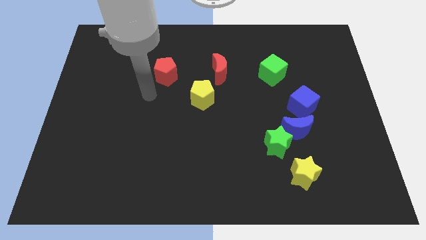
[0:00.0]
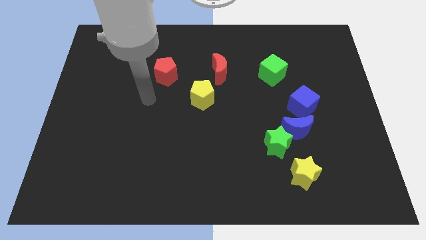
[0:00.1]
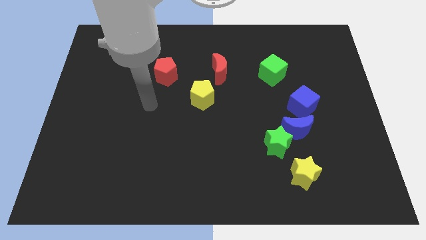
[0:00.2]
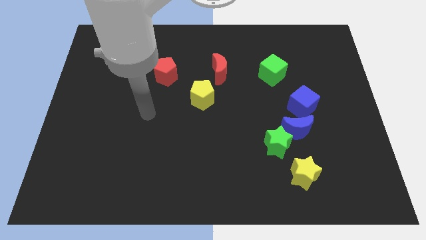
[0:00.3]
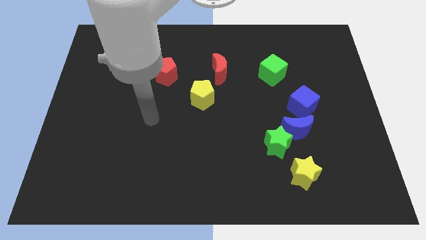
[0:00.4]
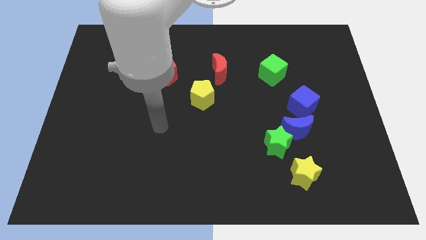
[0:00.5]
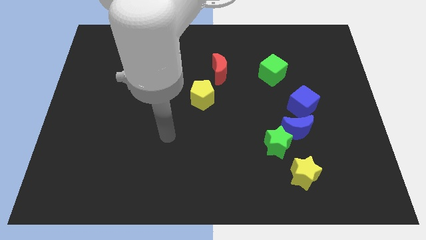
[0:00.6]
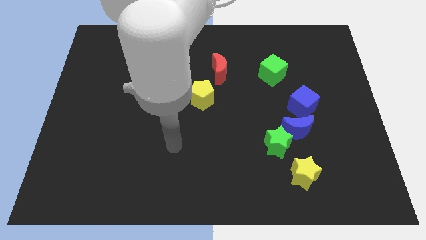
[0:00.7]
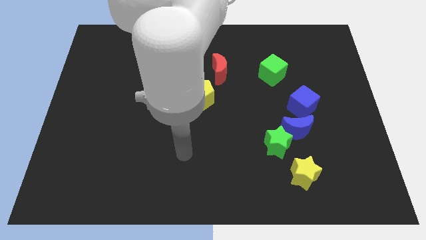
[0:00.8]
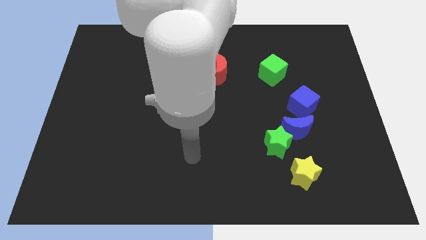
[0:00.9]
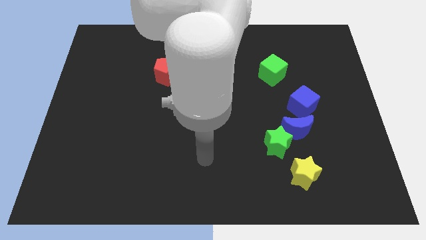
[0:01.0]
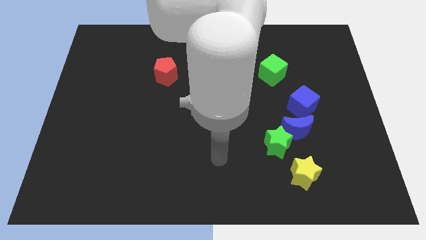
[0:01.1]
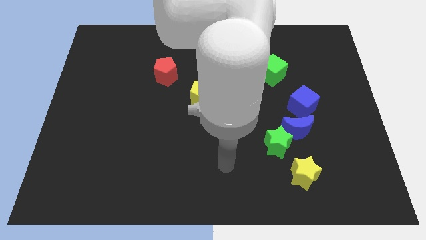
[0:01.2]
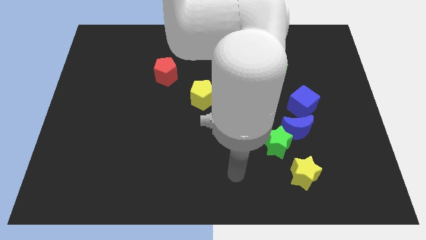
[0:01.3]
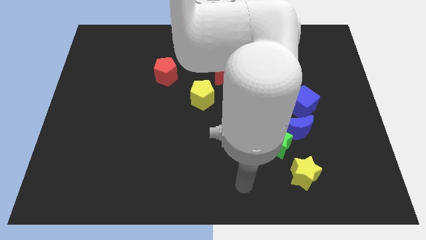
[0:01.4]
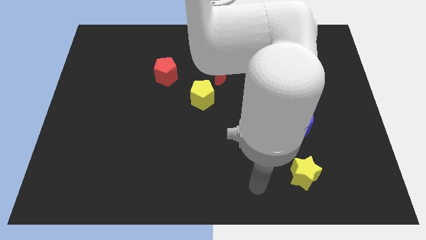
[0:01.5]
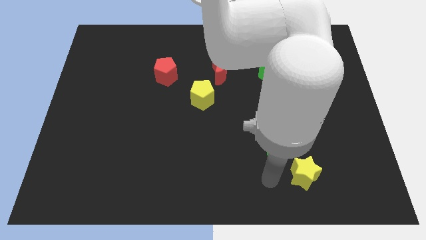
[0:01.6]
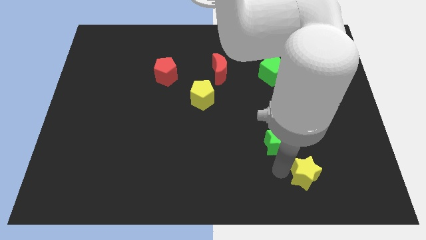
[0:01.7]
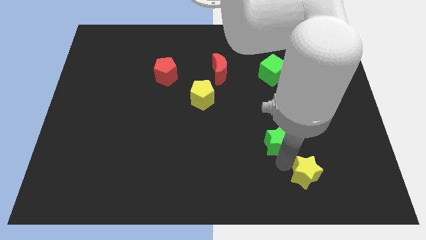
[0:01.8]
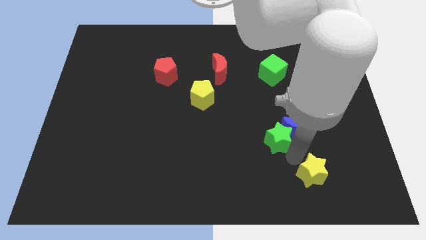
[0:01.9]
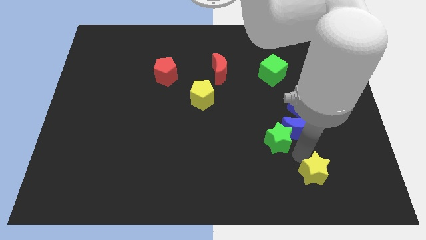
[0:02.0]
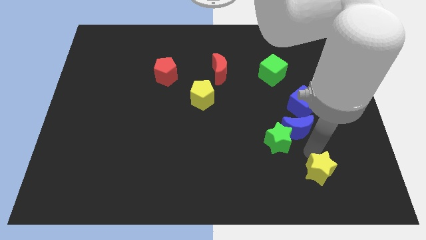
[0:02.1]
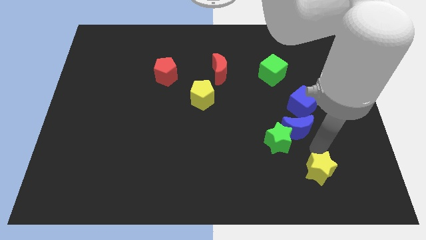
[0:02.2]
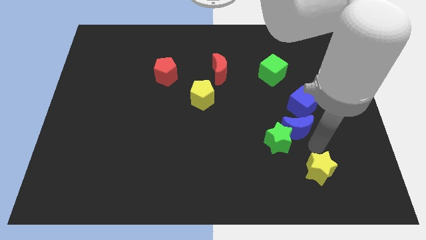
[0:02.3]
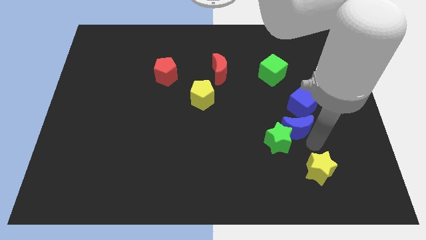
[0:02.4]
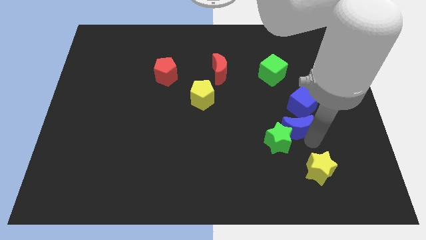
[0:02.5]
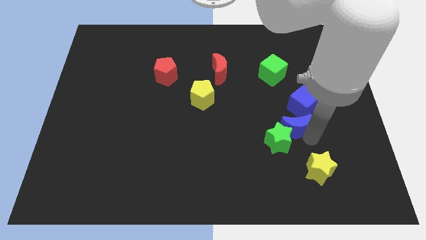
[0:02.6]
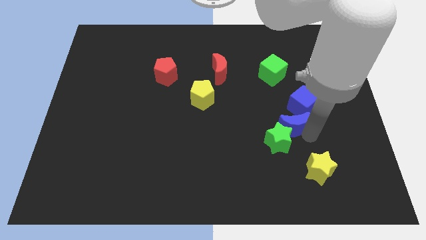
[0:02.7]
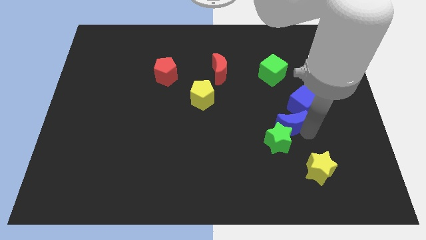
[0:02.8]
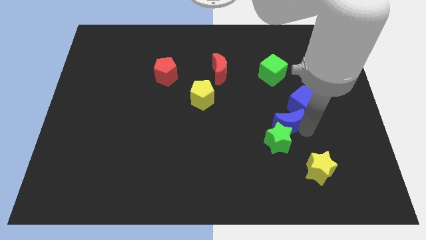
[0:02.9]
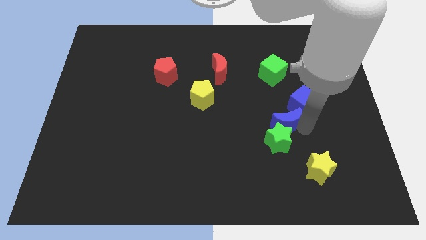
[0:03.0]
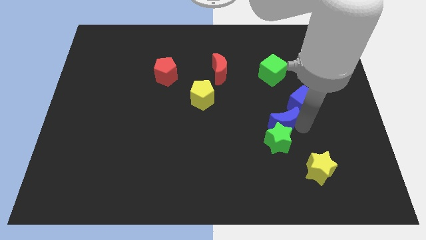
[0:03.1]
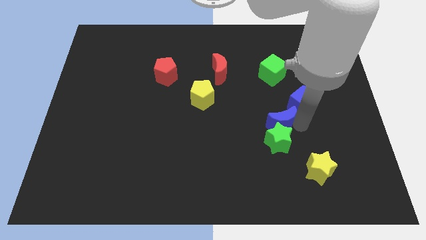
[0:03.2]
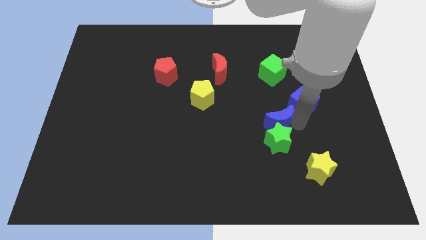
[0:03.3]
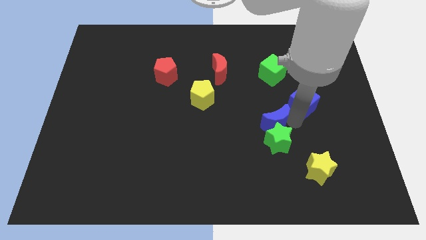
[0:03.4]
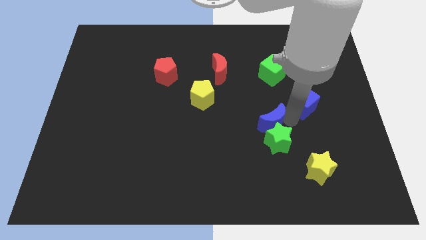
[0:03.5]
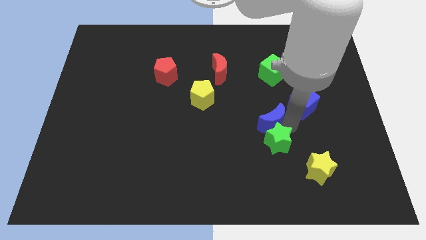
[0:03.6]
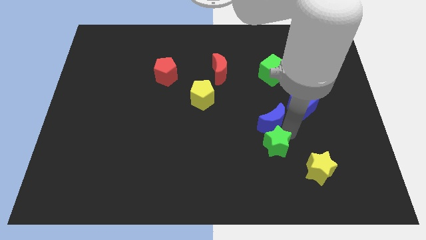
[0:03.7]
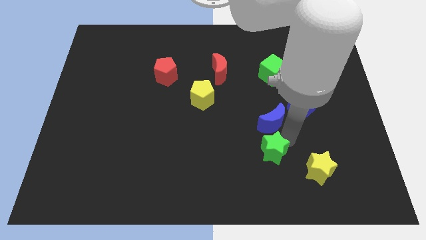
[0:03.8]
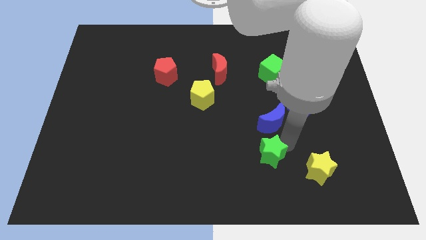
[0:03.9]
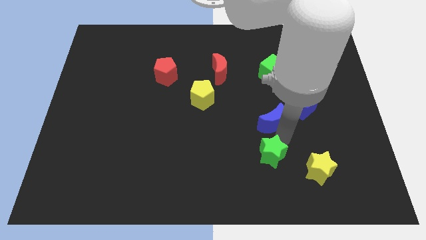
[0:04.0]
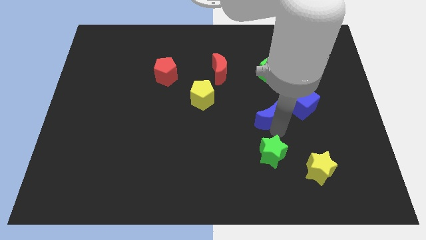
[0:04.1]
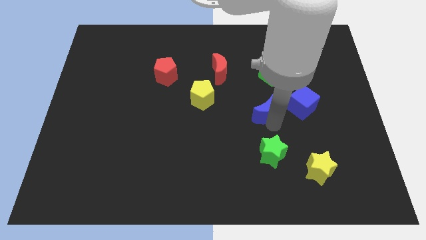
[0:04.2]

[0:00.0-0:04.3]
slightly push the blue moon up and left

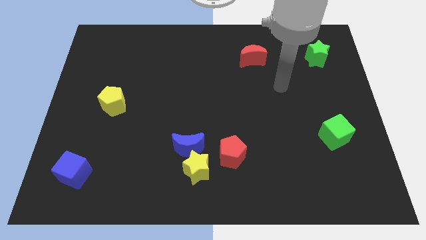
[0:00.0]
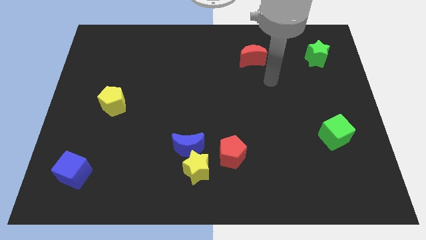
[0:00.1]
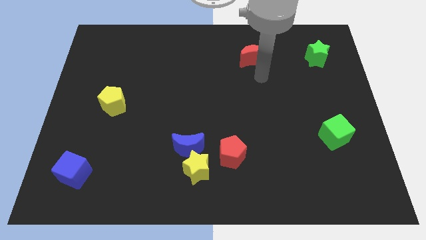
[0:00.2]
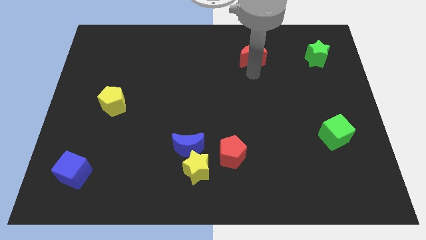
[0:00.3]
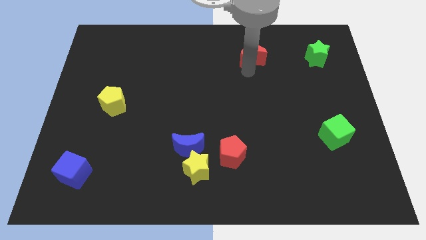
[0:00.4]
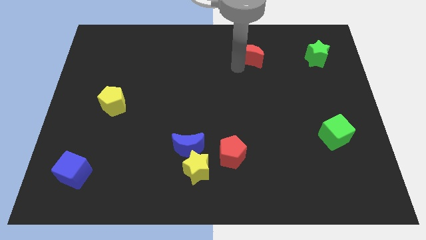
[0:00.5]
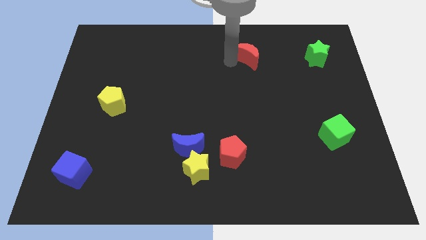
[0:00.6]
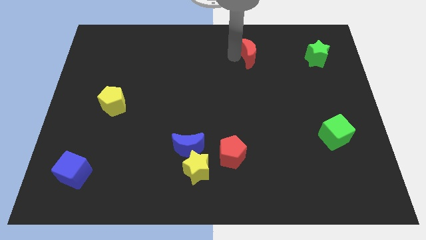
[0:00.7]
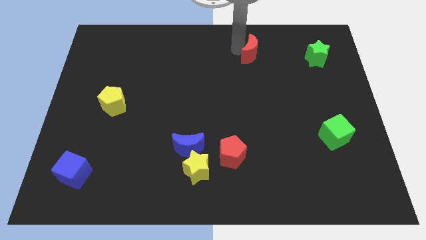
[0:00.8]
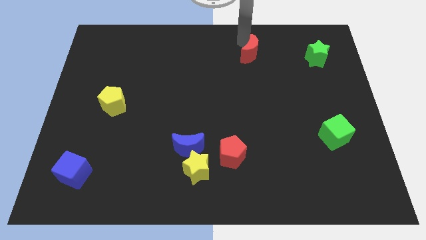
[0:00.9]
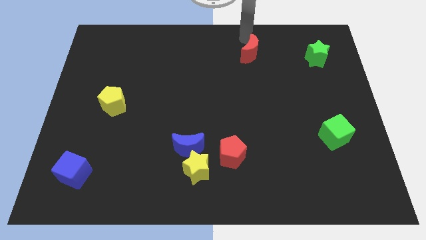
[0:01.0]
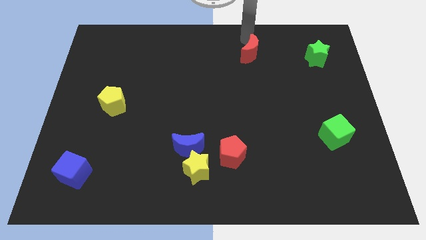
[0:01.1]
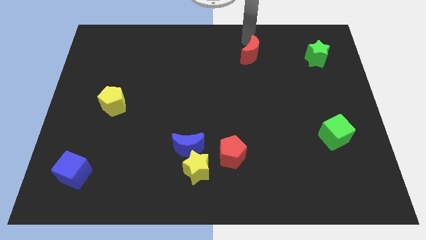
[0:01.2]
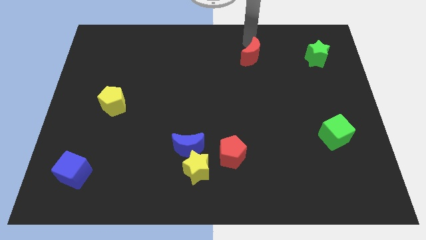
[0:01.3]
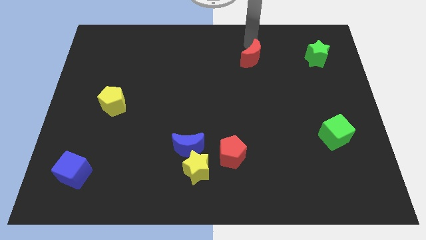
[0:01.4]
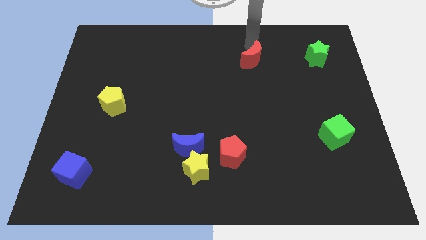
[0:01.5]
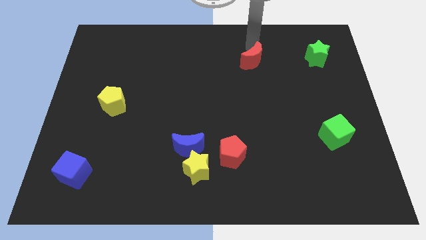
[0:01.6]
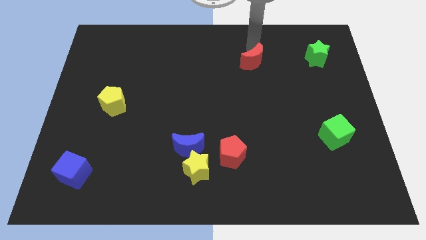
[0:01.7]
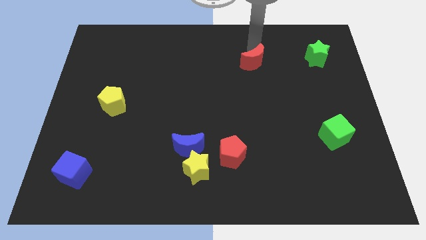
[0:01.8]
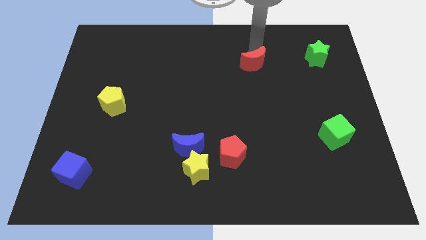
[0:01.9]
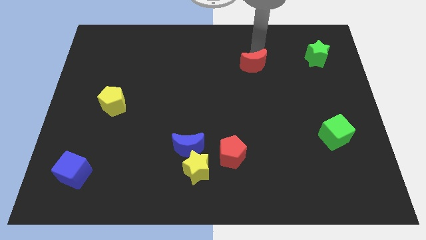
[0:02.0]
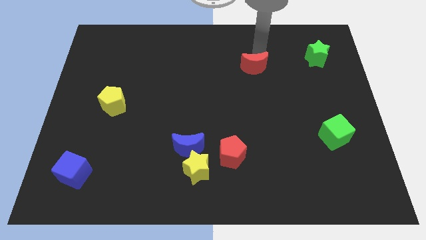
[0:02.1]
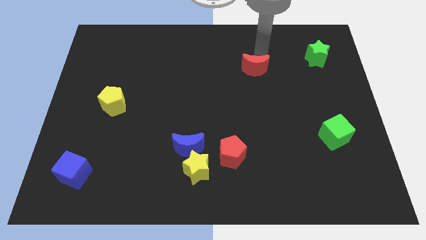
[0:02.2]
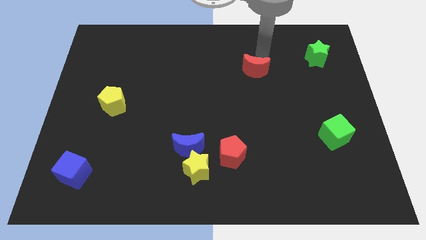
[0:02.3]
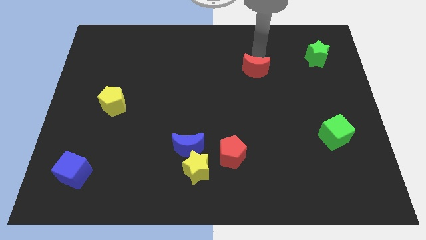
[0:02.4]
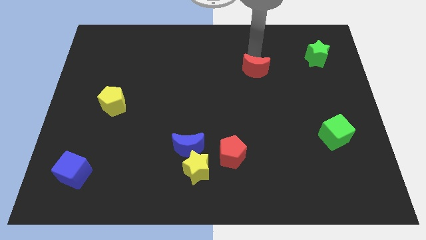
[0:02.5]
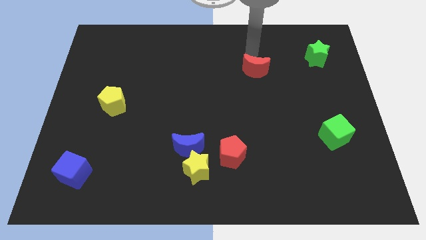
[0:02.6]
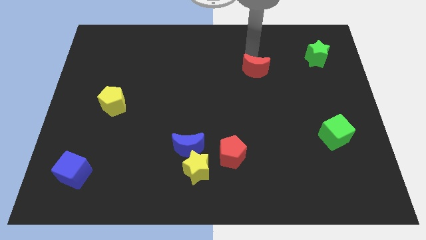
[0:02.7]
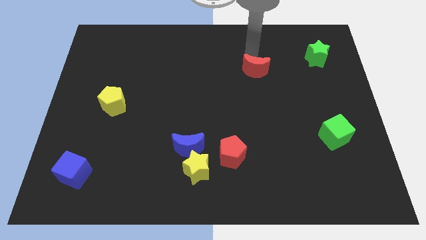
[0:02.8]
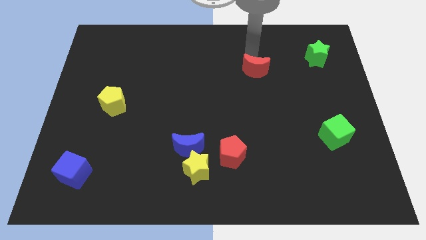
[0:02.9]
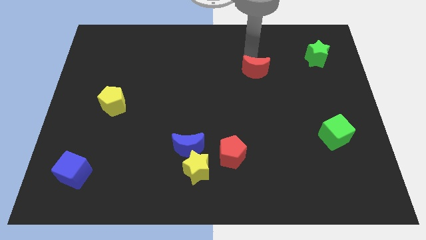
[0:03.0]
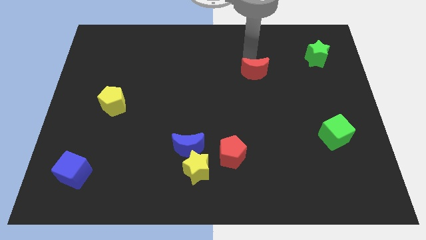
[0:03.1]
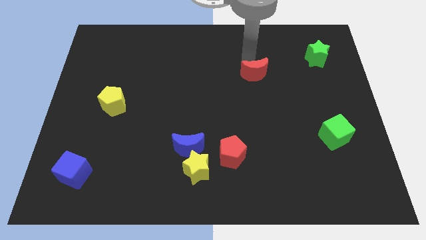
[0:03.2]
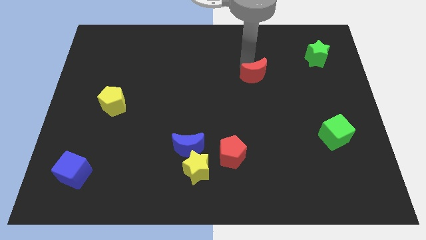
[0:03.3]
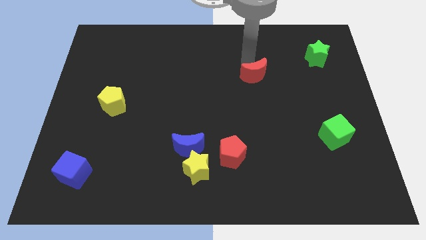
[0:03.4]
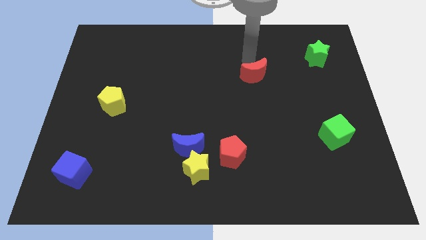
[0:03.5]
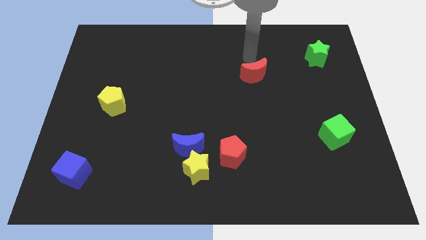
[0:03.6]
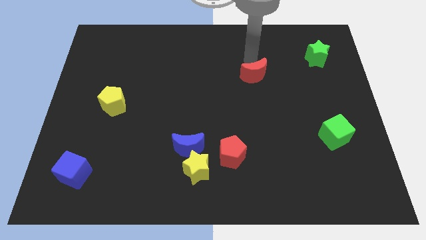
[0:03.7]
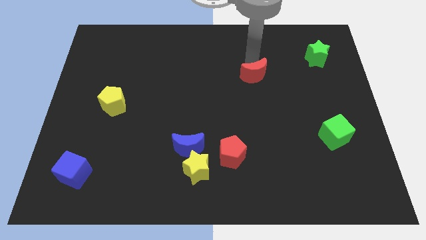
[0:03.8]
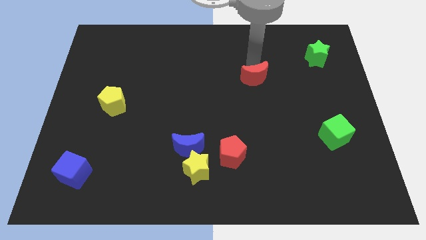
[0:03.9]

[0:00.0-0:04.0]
push the red moon slightly down
